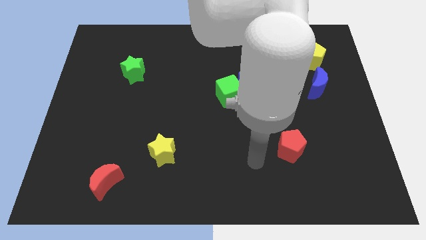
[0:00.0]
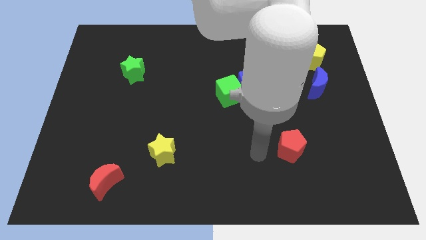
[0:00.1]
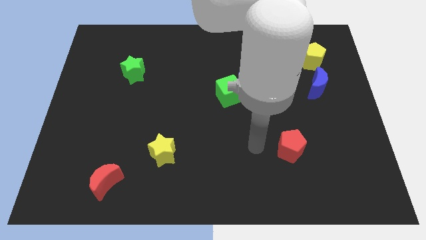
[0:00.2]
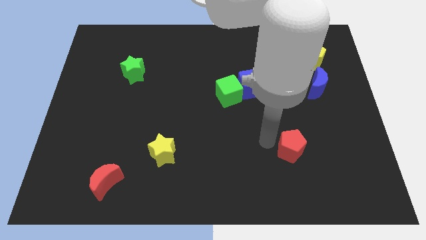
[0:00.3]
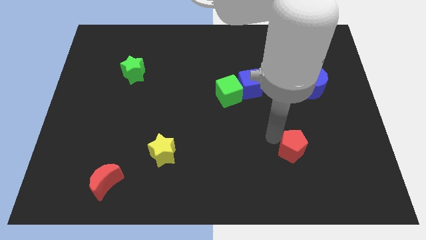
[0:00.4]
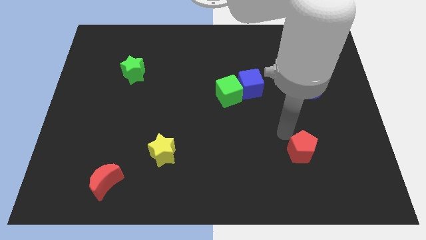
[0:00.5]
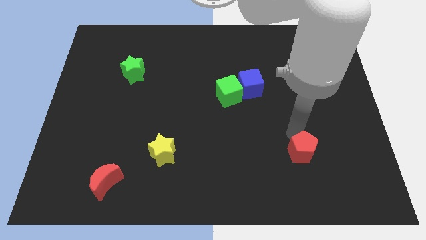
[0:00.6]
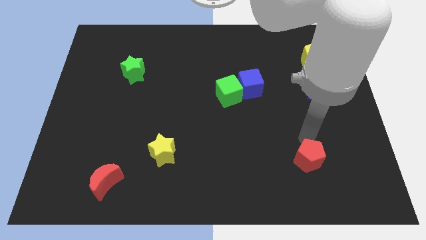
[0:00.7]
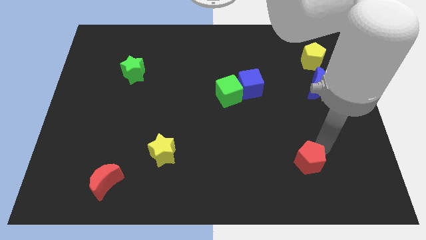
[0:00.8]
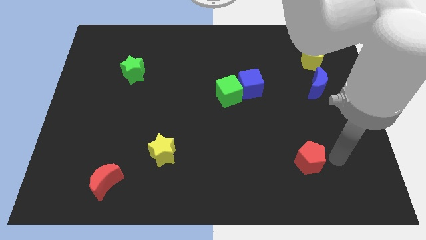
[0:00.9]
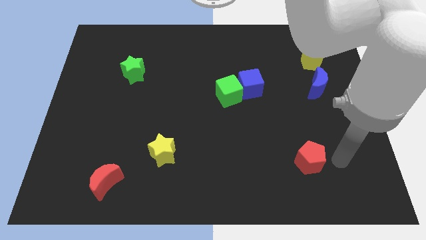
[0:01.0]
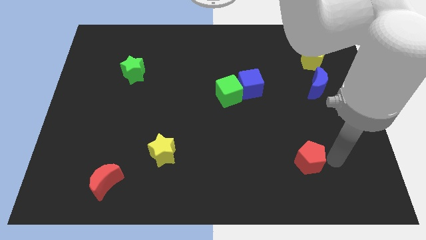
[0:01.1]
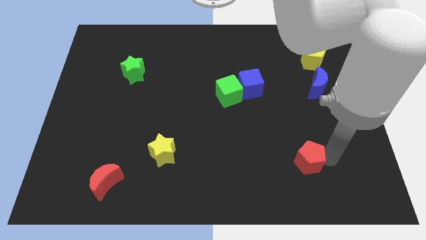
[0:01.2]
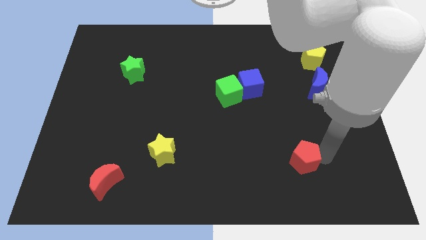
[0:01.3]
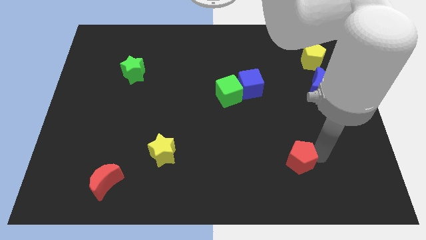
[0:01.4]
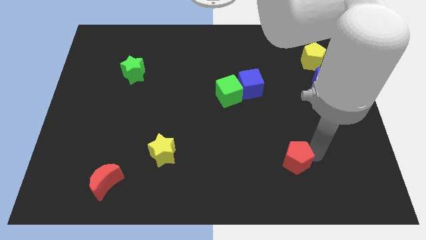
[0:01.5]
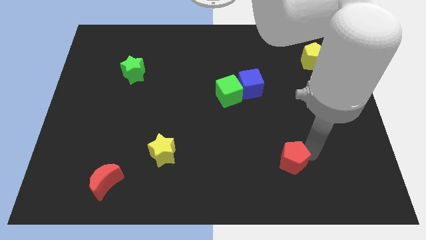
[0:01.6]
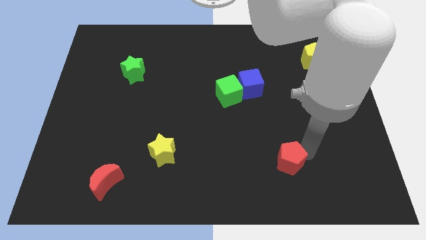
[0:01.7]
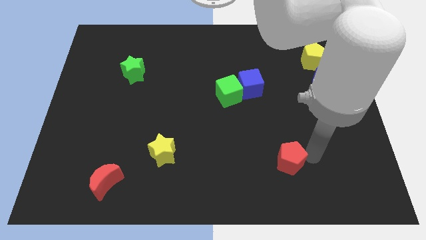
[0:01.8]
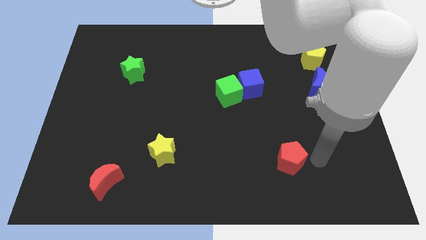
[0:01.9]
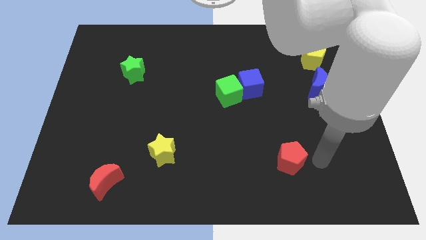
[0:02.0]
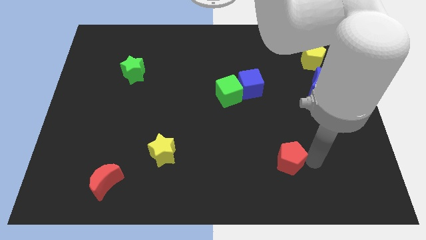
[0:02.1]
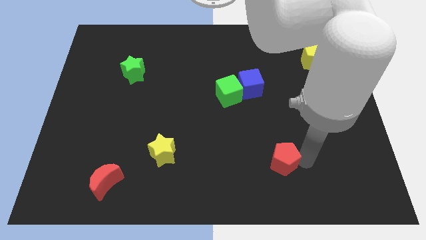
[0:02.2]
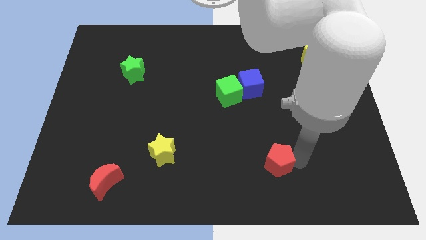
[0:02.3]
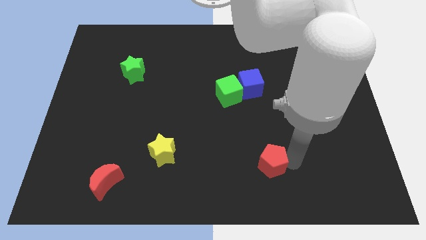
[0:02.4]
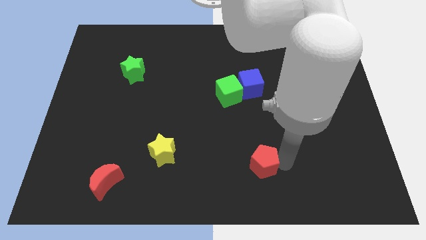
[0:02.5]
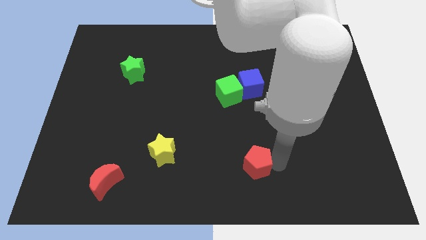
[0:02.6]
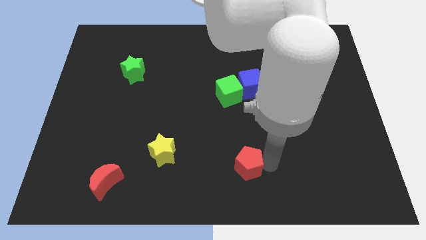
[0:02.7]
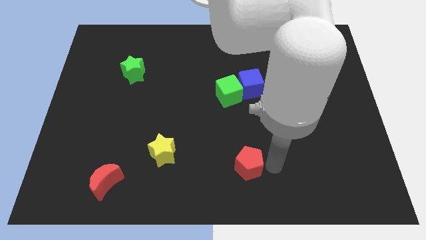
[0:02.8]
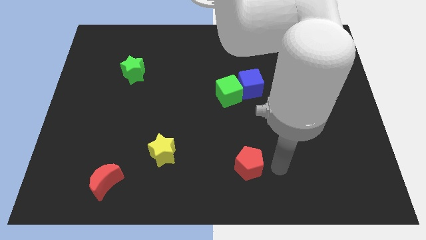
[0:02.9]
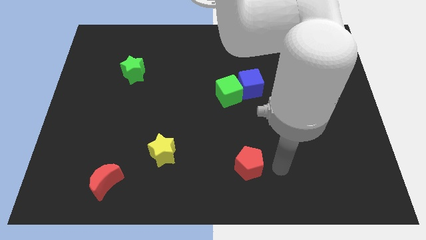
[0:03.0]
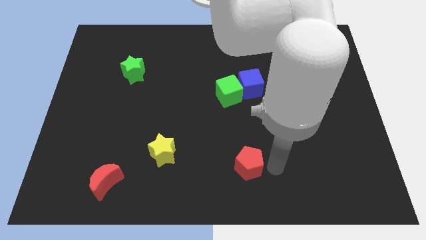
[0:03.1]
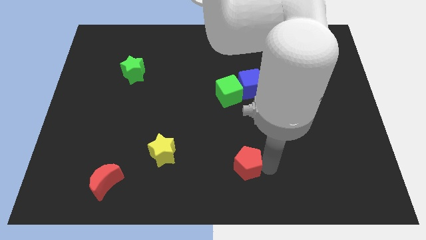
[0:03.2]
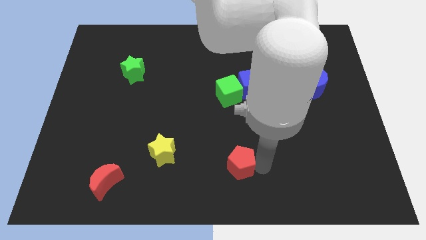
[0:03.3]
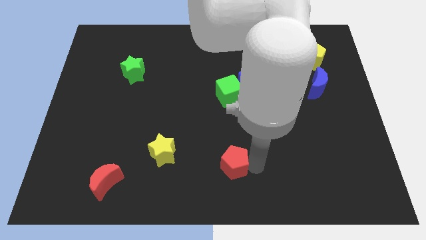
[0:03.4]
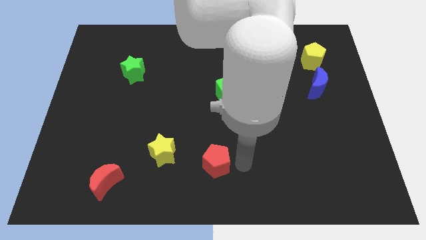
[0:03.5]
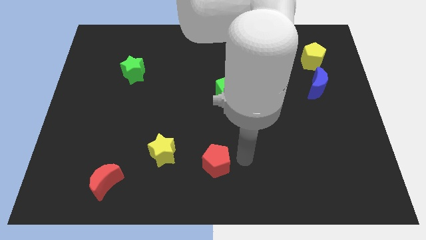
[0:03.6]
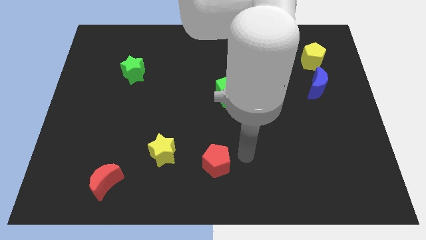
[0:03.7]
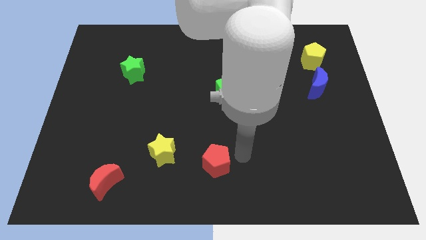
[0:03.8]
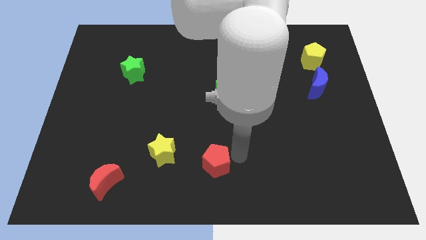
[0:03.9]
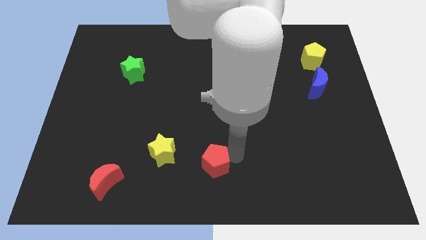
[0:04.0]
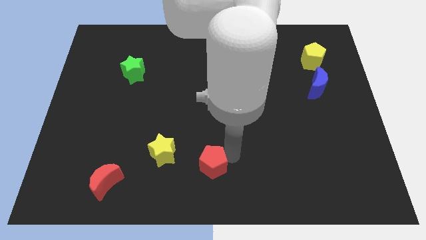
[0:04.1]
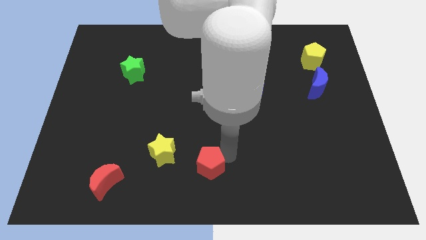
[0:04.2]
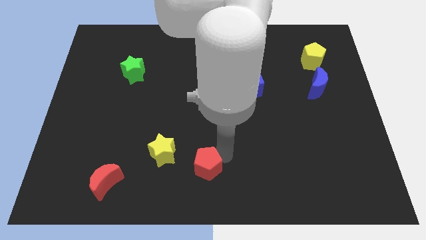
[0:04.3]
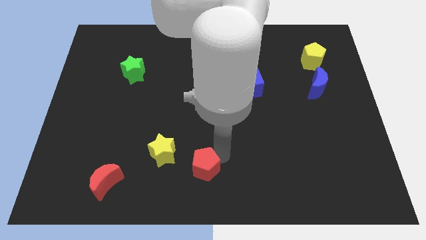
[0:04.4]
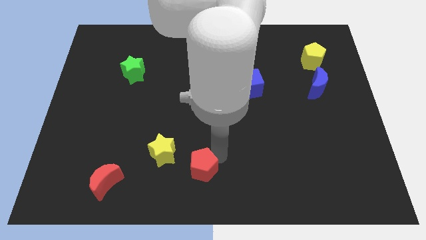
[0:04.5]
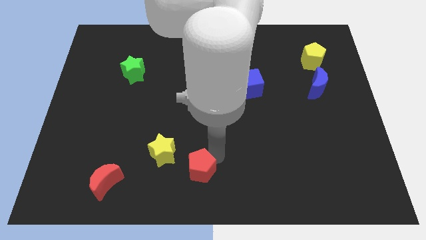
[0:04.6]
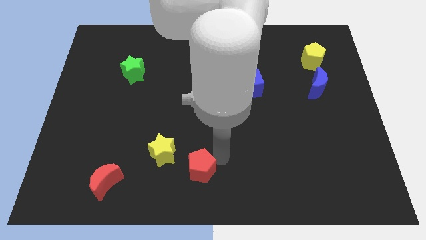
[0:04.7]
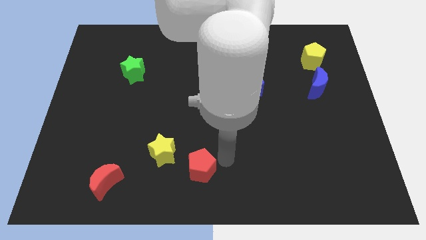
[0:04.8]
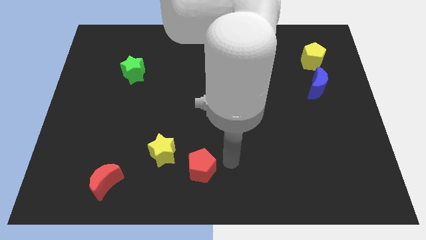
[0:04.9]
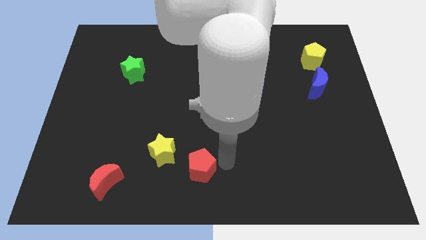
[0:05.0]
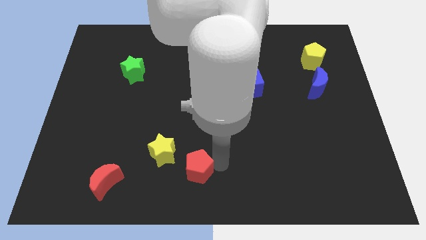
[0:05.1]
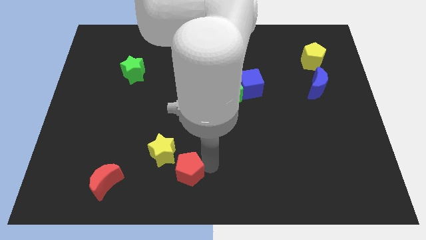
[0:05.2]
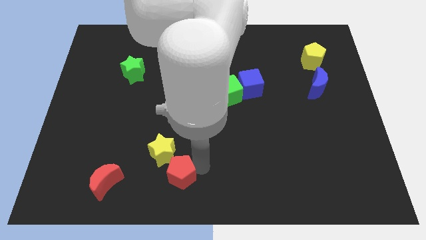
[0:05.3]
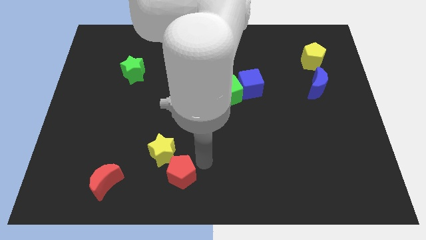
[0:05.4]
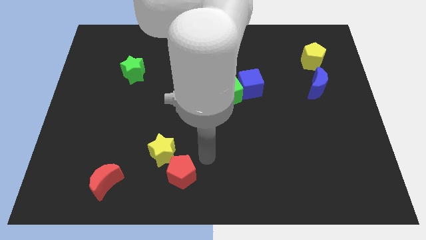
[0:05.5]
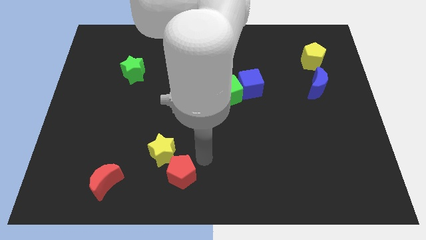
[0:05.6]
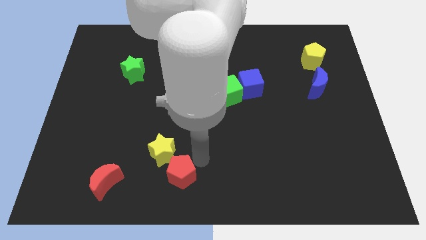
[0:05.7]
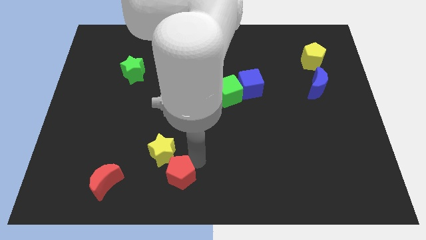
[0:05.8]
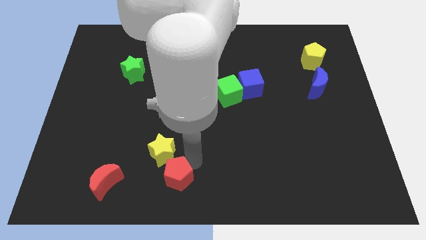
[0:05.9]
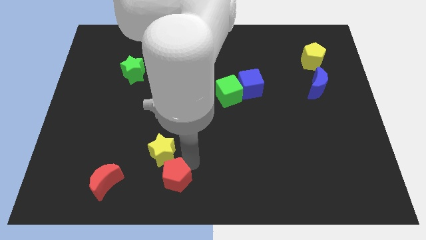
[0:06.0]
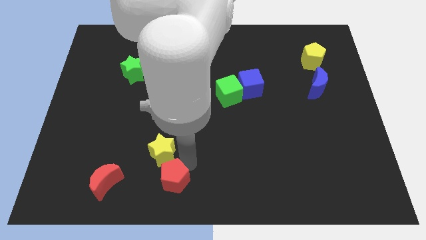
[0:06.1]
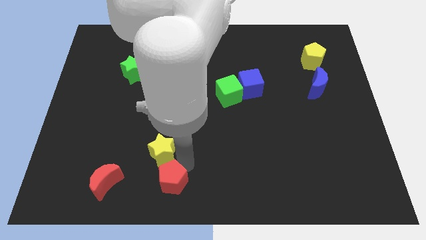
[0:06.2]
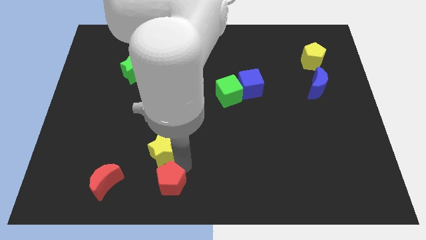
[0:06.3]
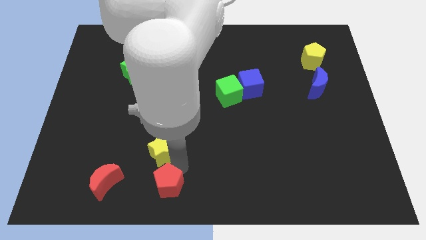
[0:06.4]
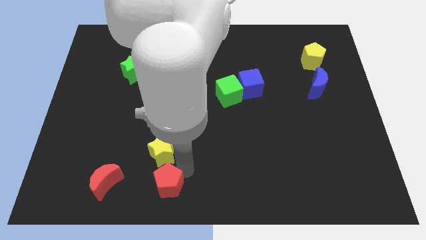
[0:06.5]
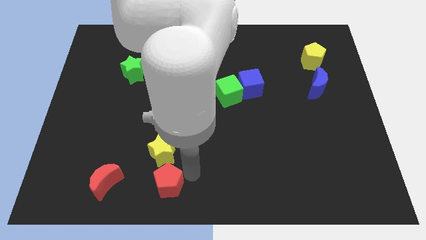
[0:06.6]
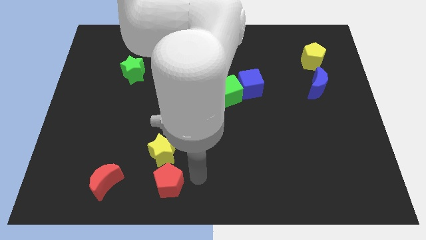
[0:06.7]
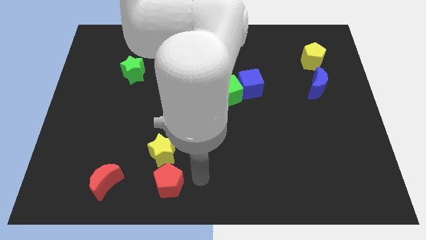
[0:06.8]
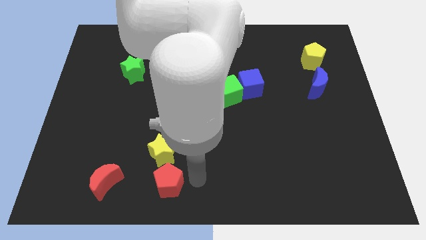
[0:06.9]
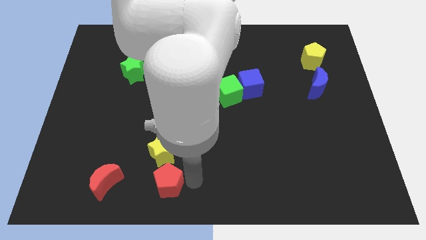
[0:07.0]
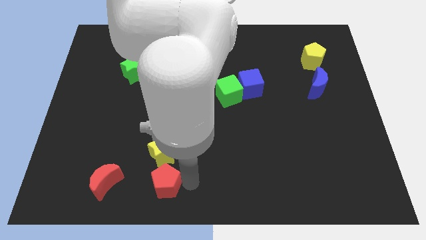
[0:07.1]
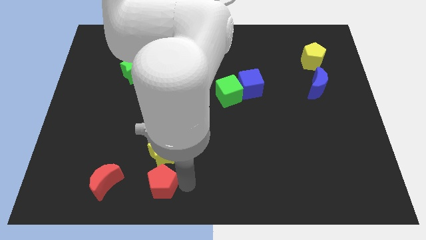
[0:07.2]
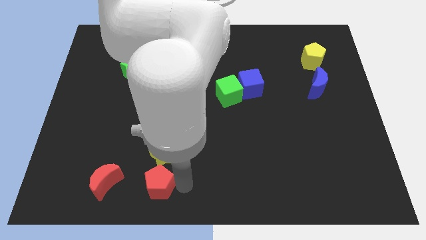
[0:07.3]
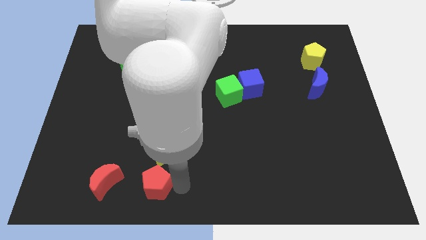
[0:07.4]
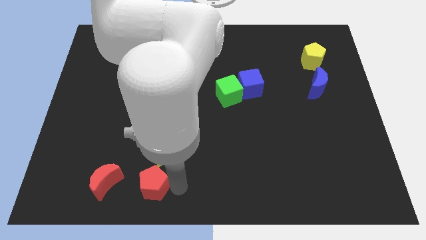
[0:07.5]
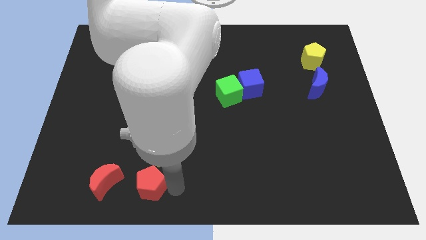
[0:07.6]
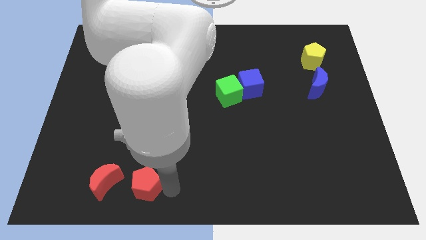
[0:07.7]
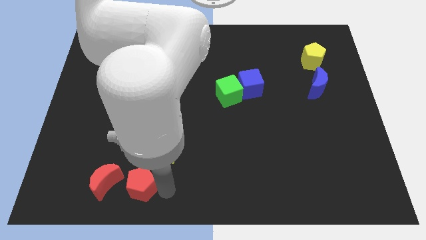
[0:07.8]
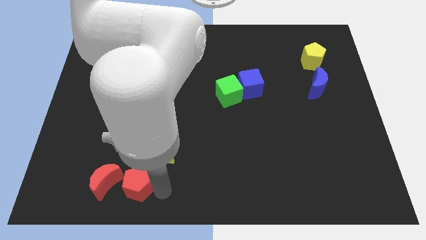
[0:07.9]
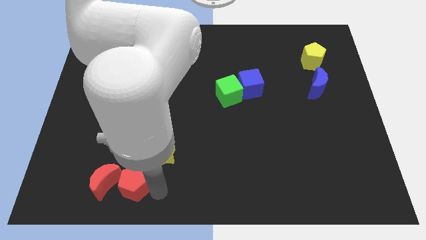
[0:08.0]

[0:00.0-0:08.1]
push the red pentagon next to the red moon
